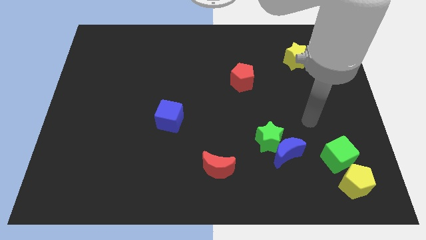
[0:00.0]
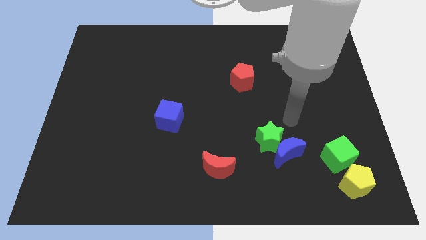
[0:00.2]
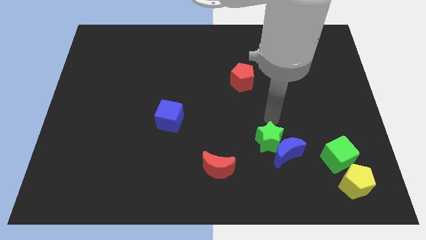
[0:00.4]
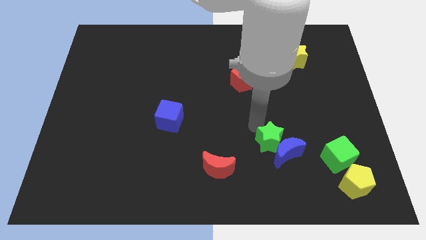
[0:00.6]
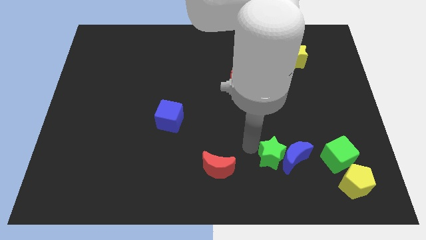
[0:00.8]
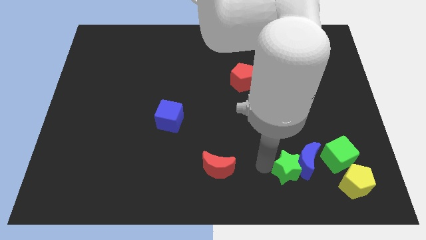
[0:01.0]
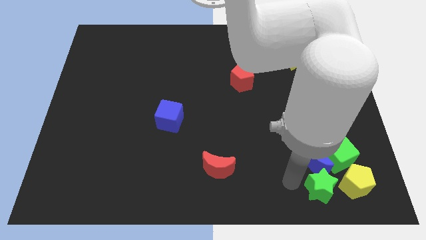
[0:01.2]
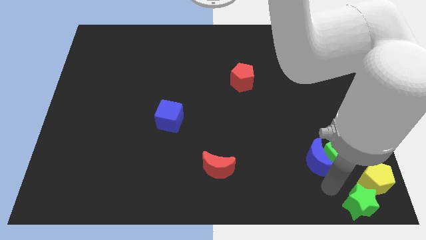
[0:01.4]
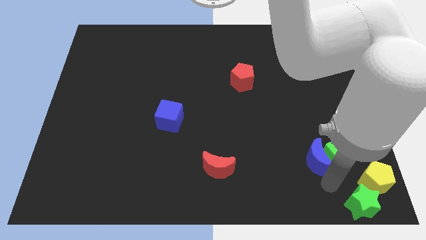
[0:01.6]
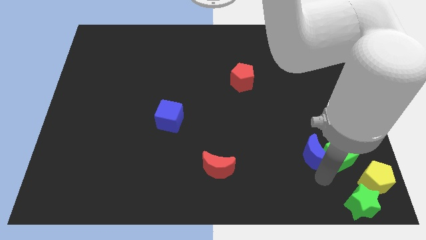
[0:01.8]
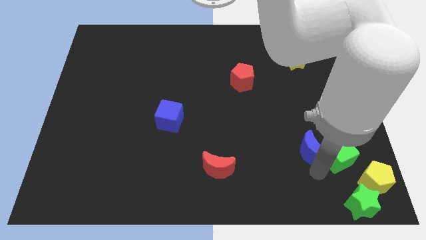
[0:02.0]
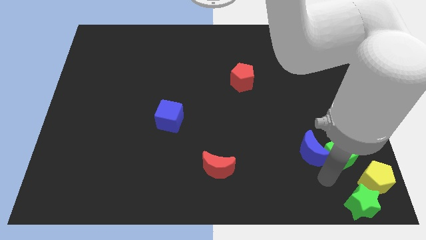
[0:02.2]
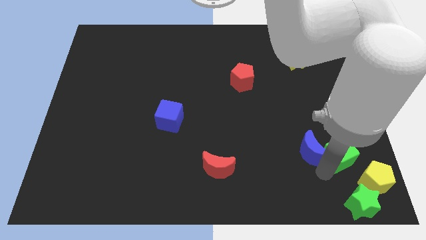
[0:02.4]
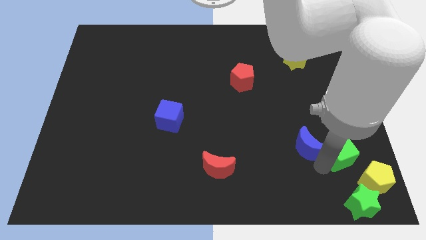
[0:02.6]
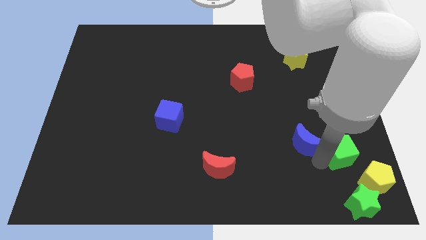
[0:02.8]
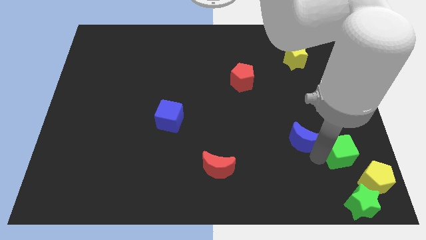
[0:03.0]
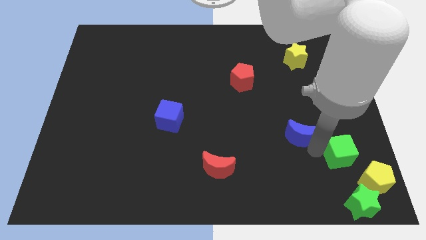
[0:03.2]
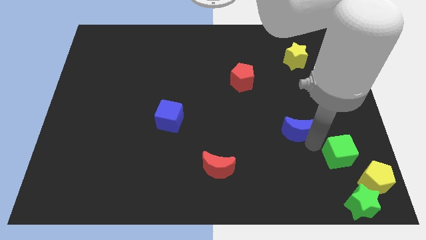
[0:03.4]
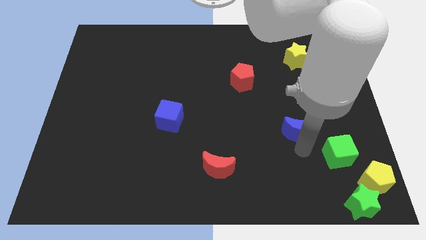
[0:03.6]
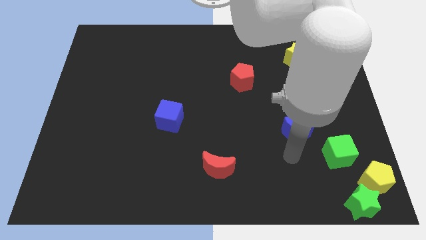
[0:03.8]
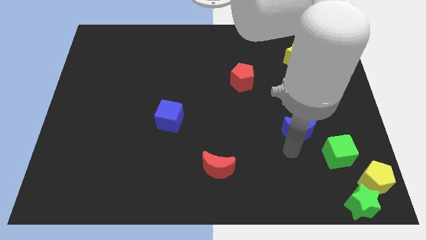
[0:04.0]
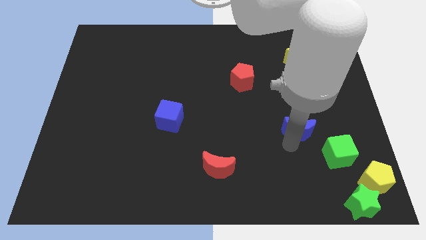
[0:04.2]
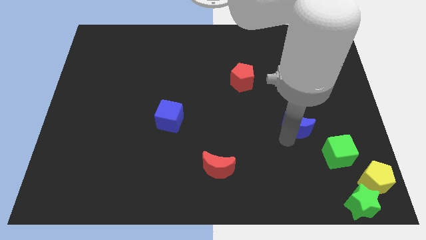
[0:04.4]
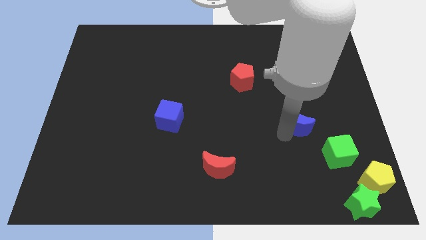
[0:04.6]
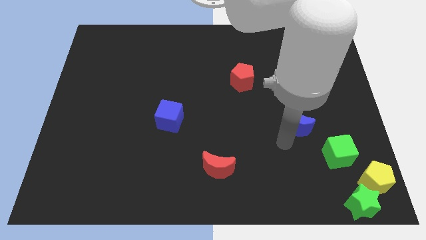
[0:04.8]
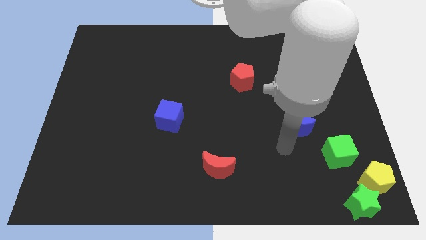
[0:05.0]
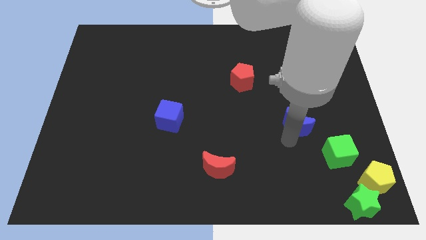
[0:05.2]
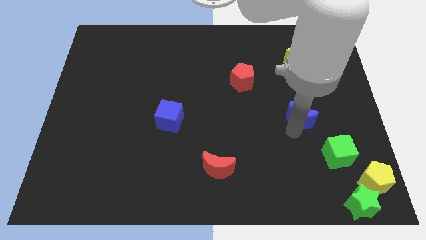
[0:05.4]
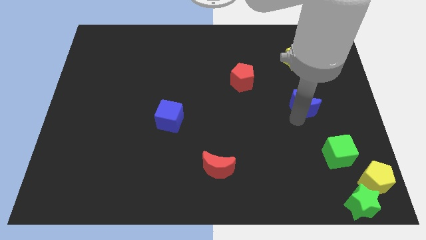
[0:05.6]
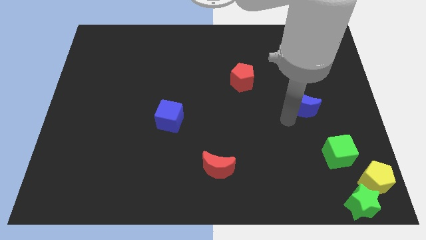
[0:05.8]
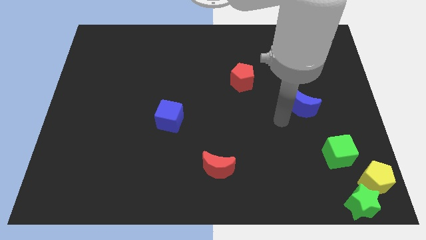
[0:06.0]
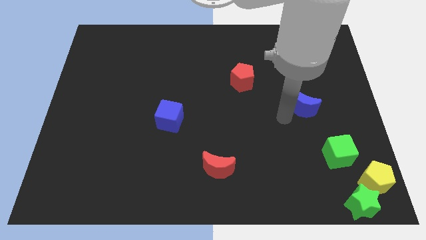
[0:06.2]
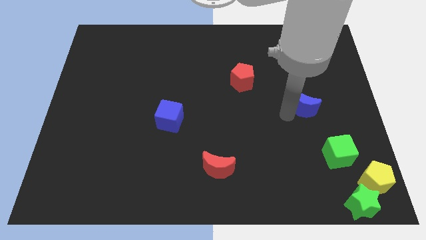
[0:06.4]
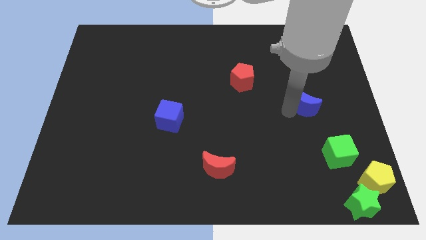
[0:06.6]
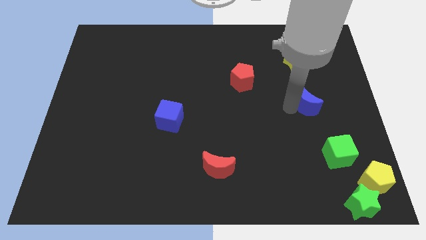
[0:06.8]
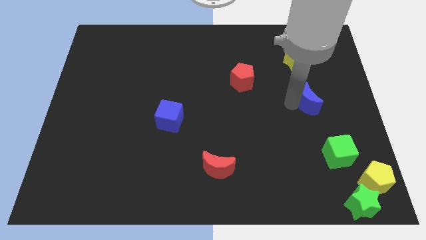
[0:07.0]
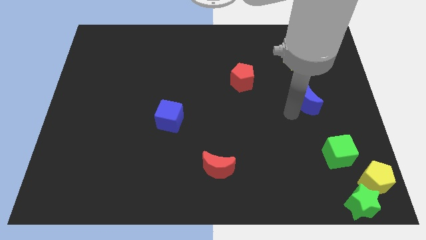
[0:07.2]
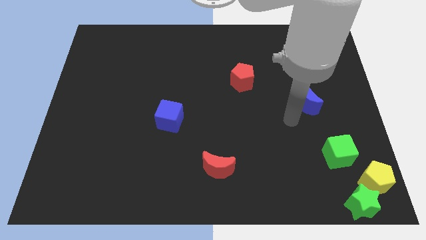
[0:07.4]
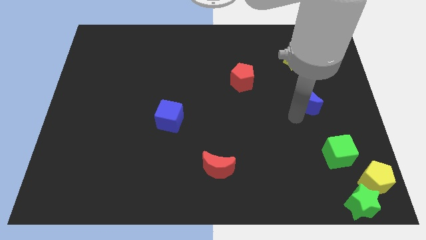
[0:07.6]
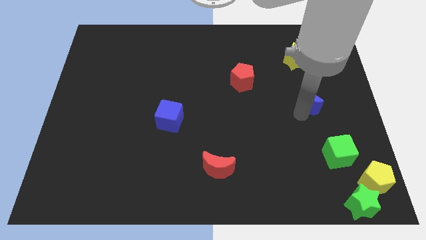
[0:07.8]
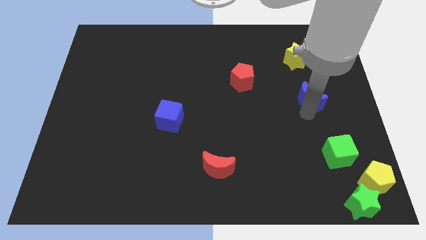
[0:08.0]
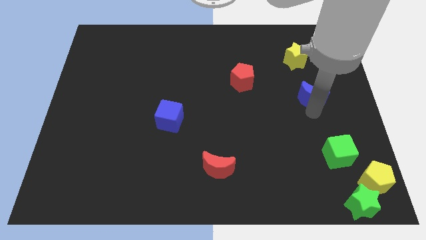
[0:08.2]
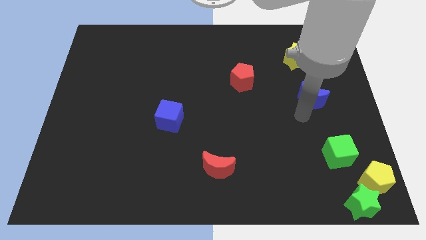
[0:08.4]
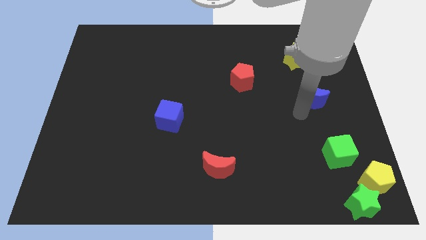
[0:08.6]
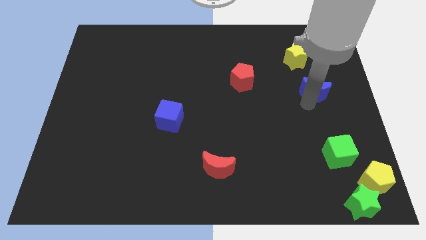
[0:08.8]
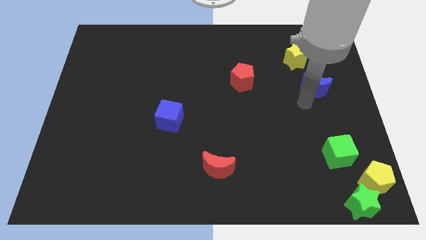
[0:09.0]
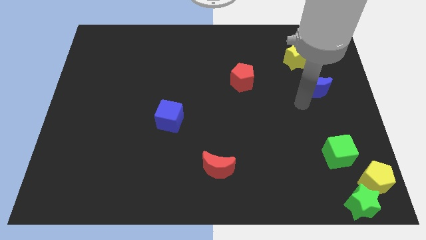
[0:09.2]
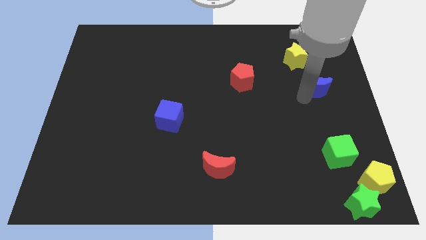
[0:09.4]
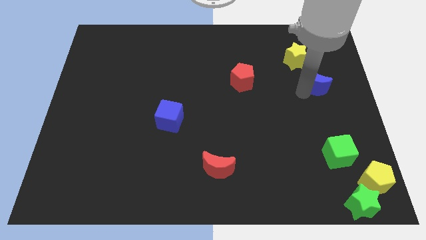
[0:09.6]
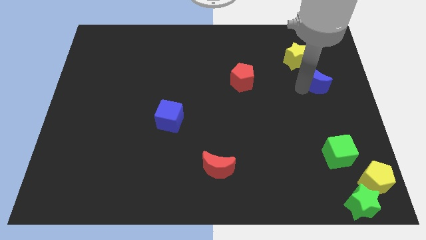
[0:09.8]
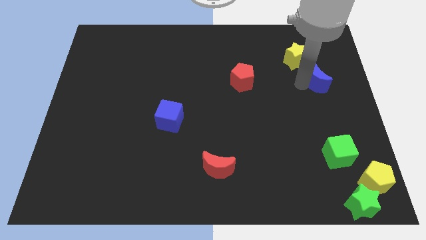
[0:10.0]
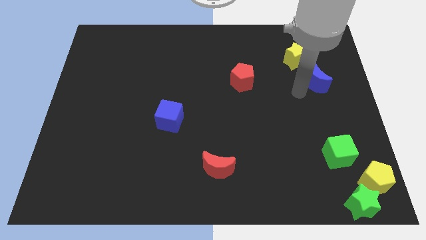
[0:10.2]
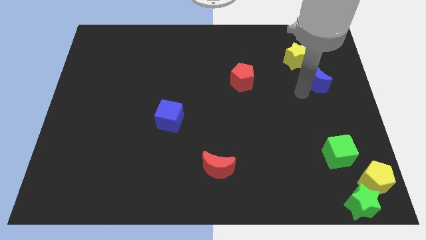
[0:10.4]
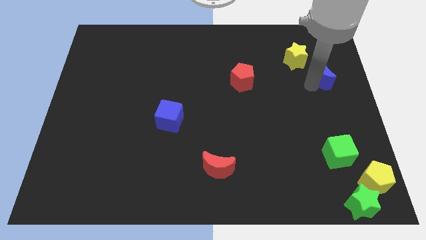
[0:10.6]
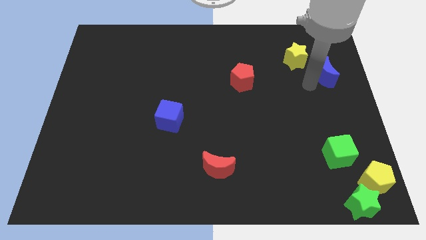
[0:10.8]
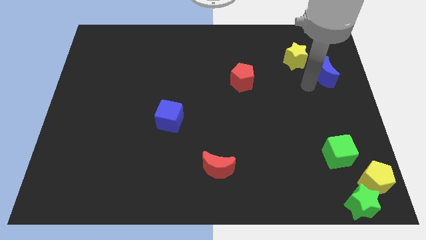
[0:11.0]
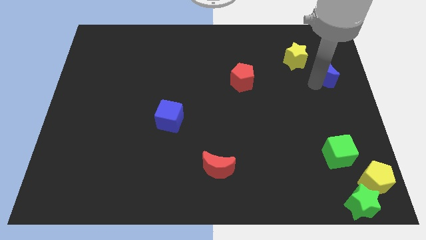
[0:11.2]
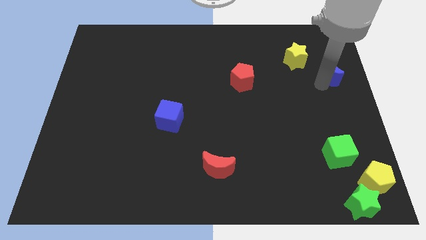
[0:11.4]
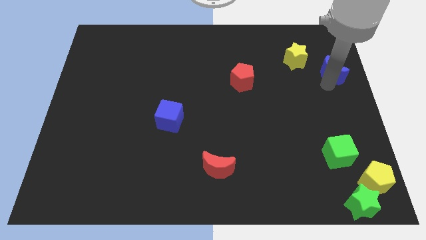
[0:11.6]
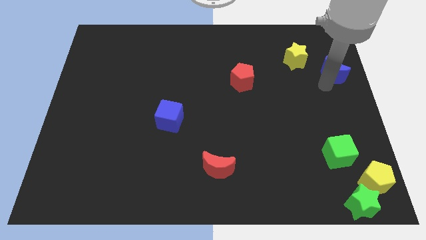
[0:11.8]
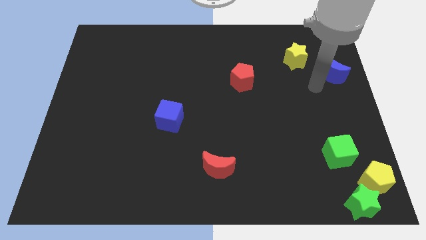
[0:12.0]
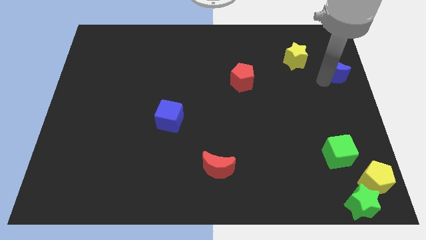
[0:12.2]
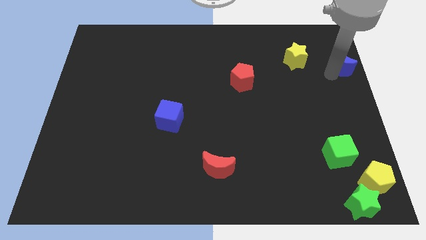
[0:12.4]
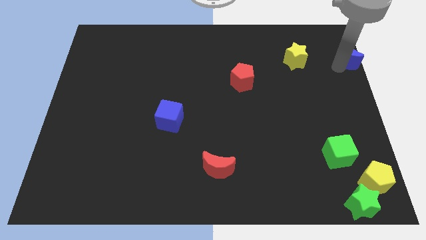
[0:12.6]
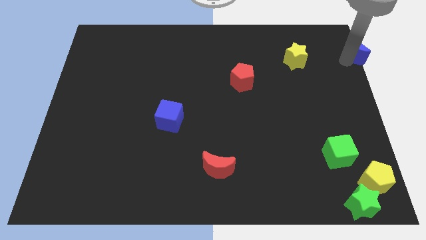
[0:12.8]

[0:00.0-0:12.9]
move the blue moon to the top right corner

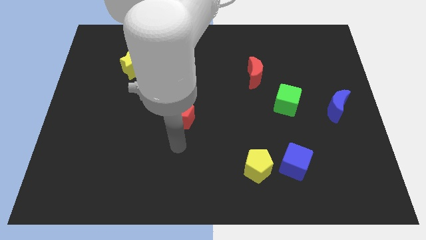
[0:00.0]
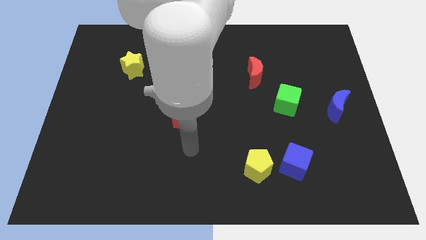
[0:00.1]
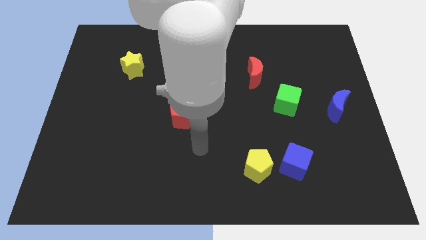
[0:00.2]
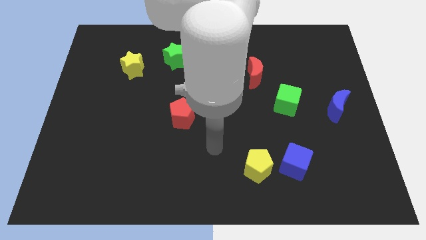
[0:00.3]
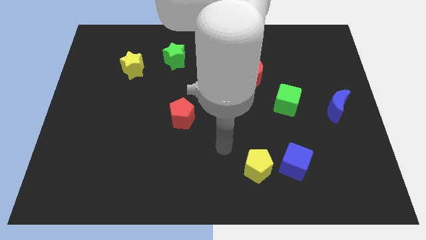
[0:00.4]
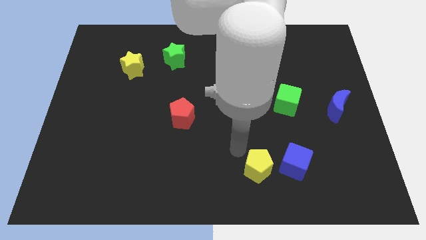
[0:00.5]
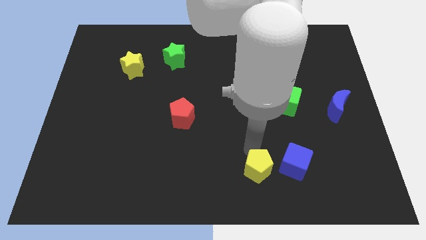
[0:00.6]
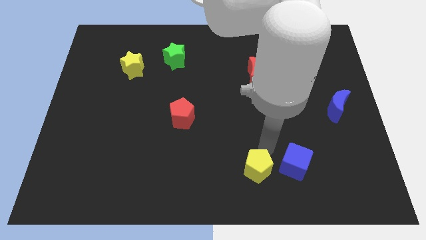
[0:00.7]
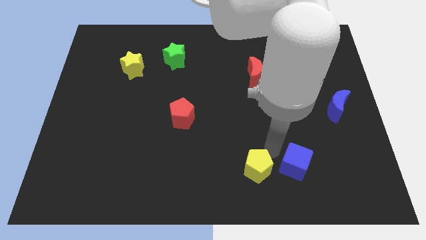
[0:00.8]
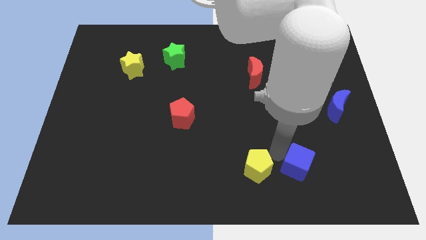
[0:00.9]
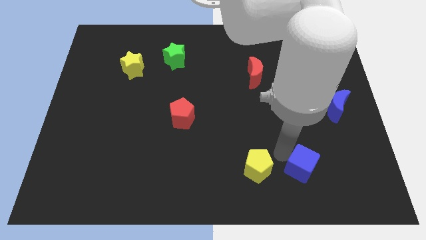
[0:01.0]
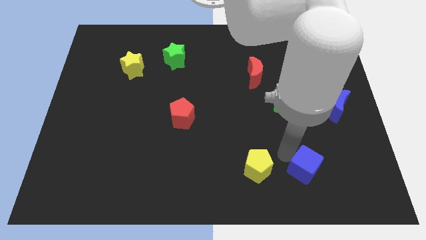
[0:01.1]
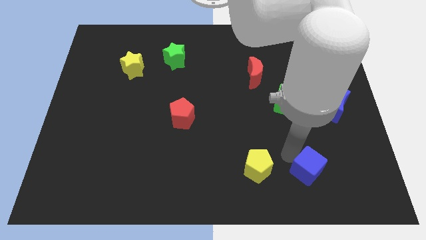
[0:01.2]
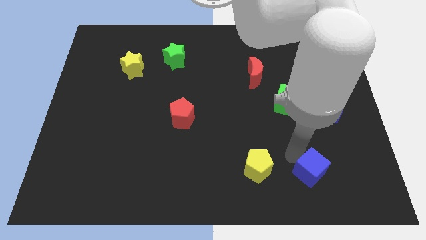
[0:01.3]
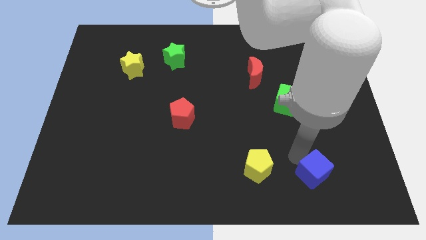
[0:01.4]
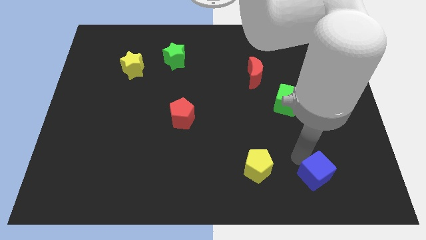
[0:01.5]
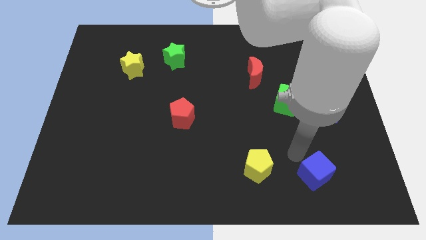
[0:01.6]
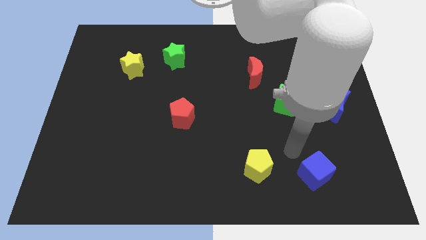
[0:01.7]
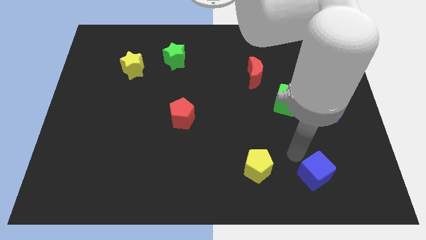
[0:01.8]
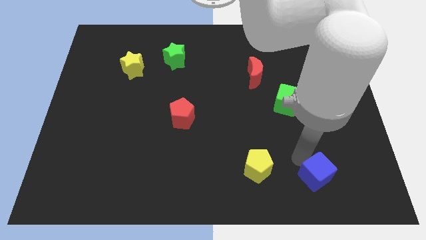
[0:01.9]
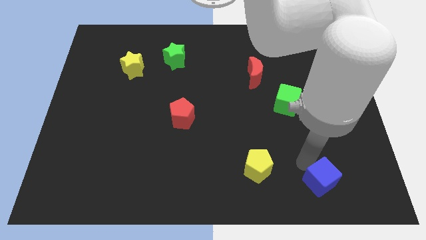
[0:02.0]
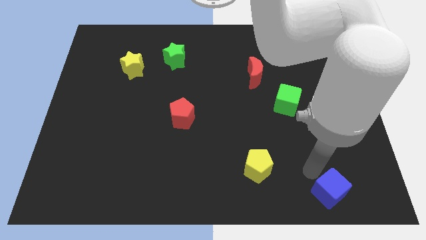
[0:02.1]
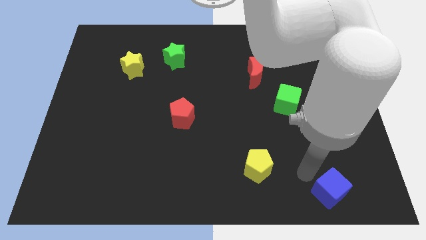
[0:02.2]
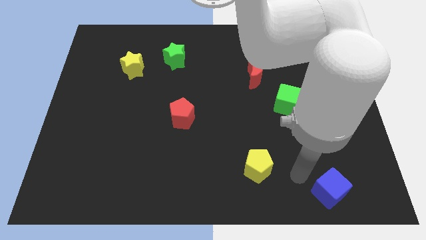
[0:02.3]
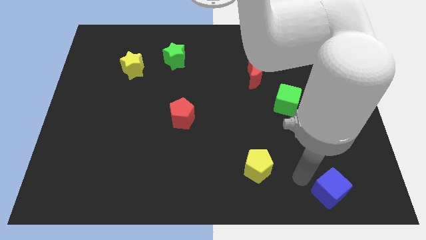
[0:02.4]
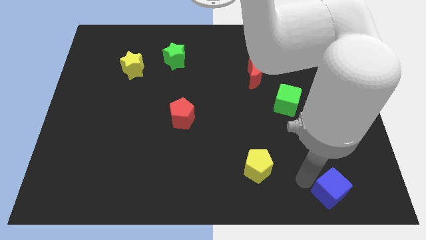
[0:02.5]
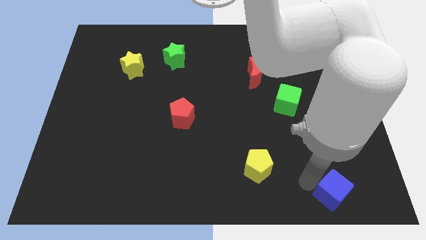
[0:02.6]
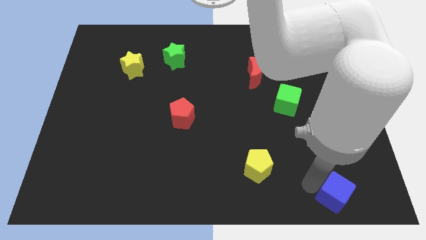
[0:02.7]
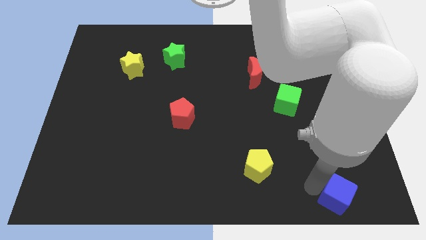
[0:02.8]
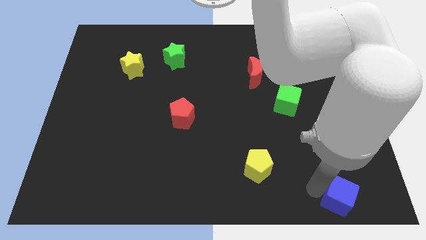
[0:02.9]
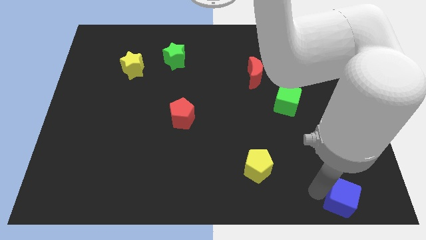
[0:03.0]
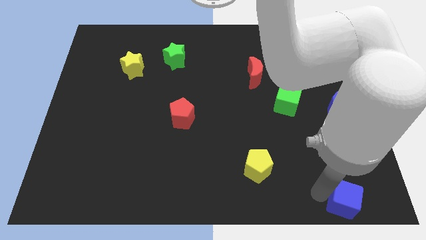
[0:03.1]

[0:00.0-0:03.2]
move the blue cube to the lower right corner
